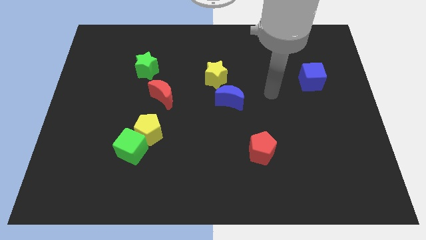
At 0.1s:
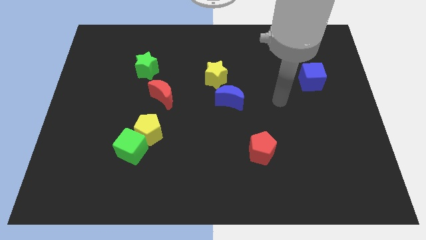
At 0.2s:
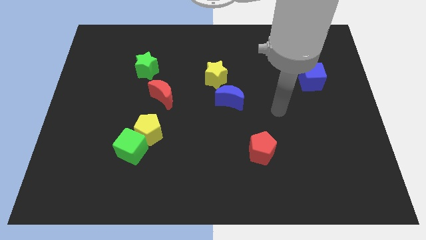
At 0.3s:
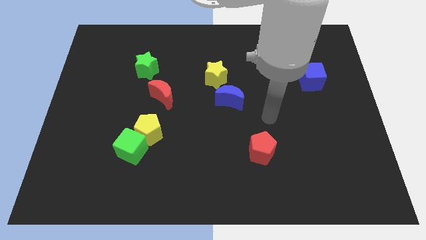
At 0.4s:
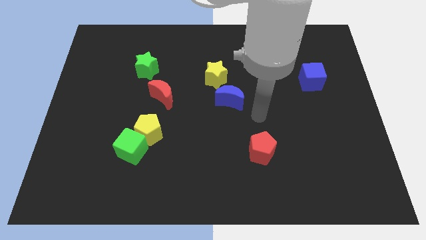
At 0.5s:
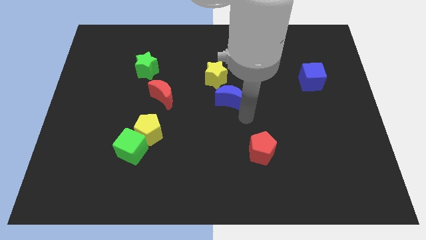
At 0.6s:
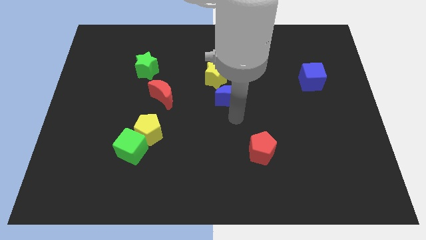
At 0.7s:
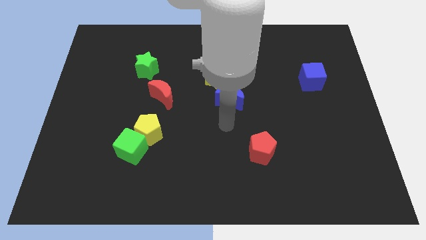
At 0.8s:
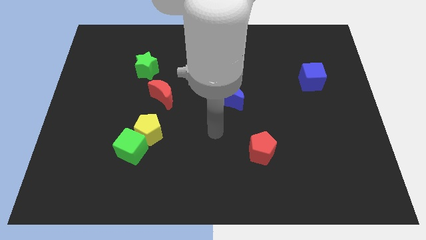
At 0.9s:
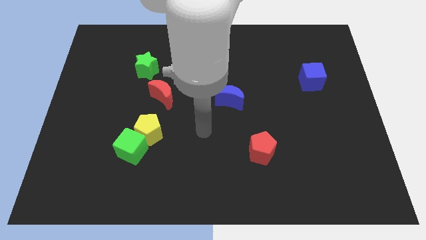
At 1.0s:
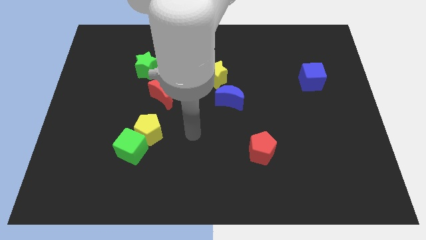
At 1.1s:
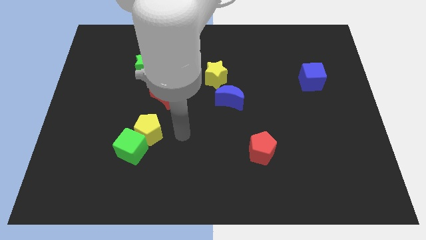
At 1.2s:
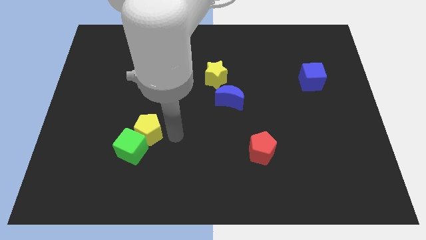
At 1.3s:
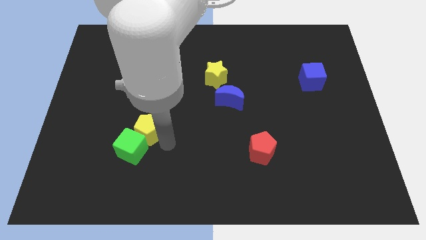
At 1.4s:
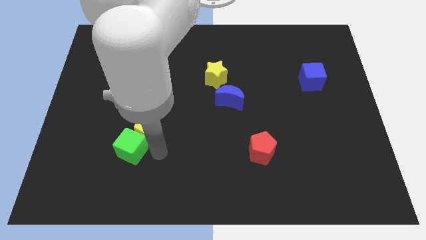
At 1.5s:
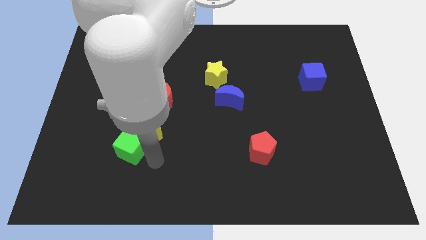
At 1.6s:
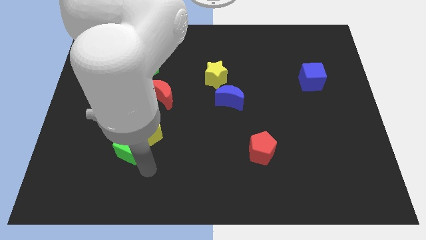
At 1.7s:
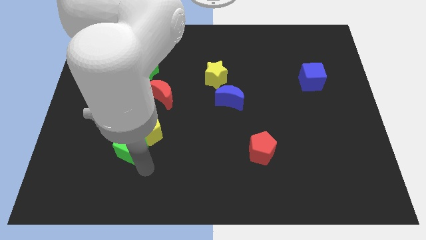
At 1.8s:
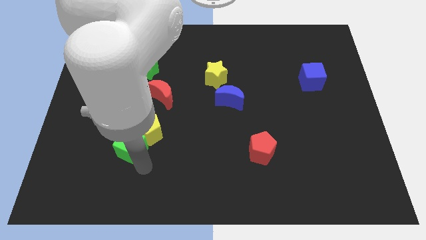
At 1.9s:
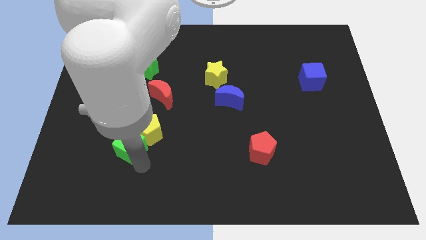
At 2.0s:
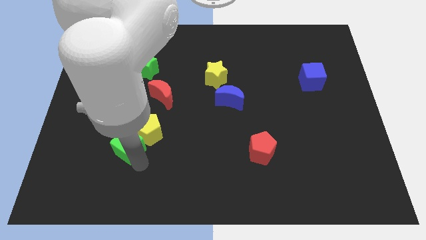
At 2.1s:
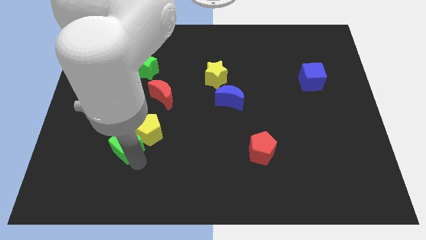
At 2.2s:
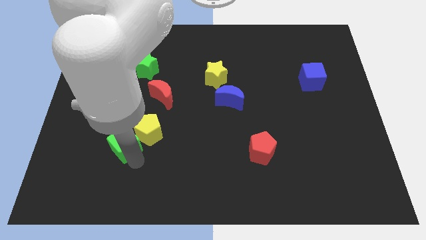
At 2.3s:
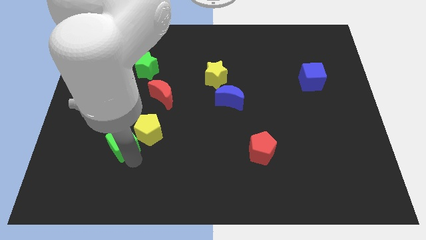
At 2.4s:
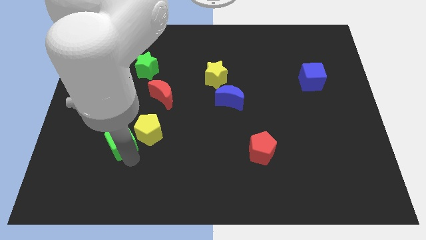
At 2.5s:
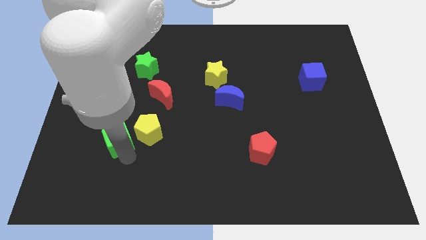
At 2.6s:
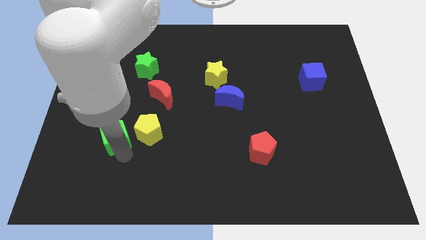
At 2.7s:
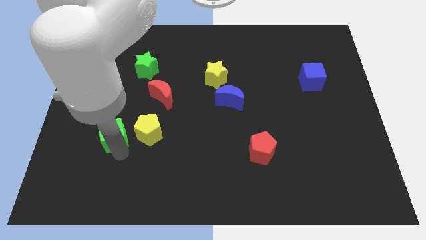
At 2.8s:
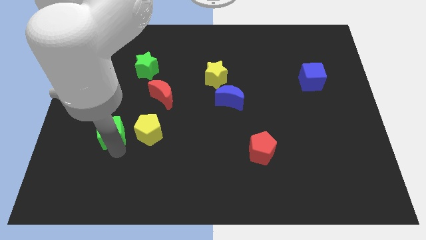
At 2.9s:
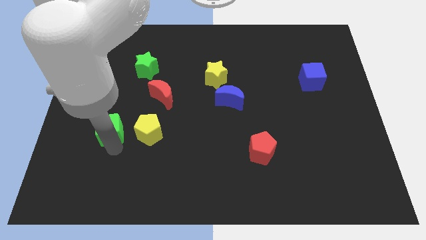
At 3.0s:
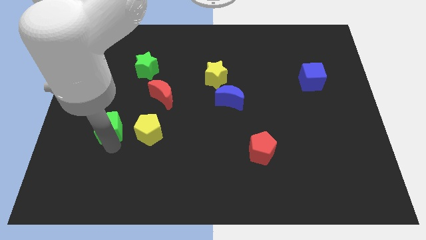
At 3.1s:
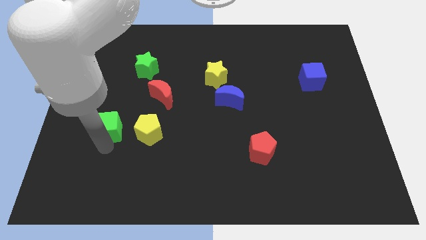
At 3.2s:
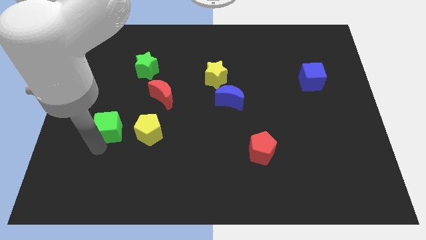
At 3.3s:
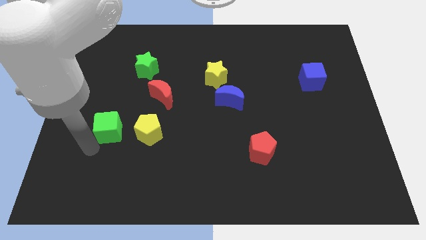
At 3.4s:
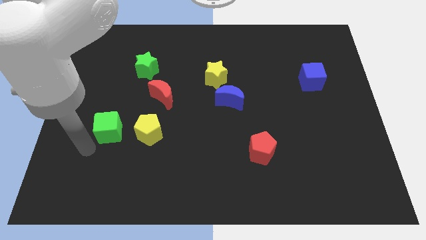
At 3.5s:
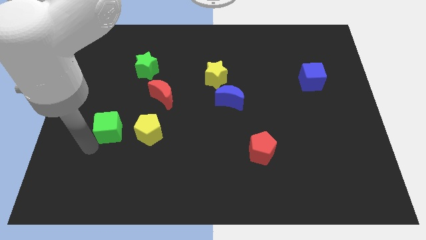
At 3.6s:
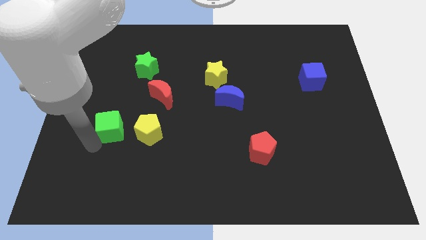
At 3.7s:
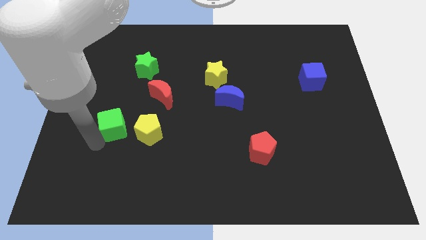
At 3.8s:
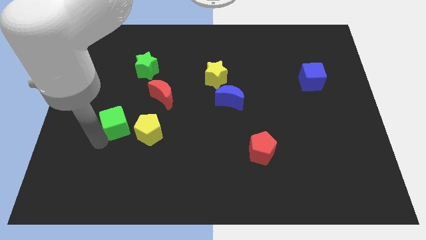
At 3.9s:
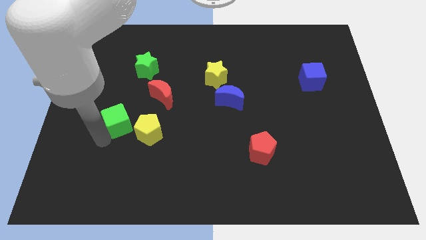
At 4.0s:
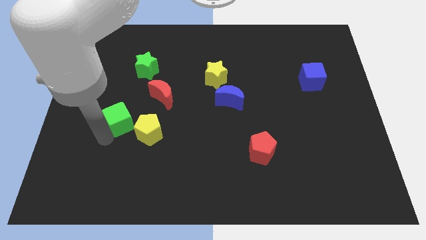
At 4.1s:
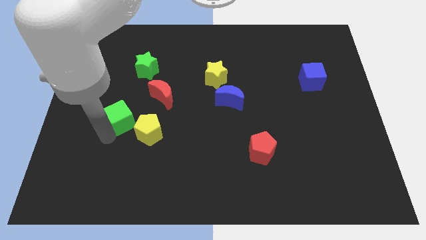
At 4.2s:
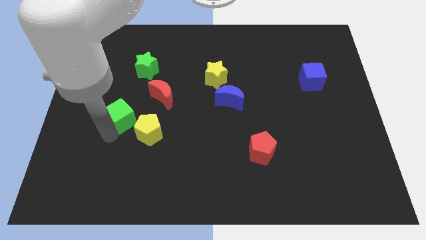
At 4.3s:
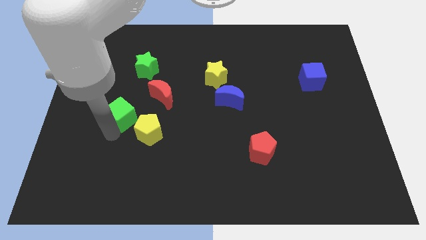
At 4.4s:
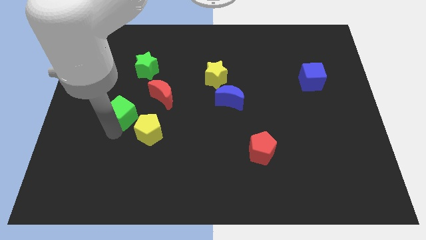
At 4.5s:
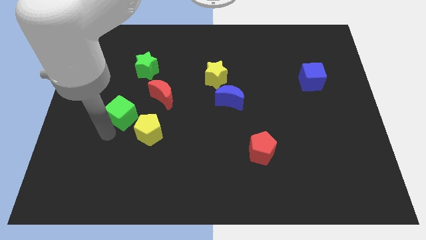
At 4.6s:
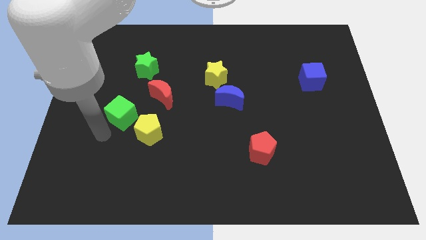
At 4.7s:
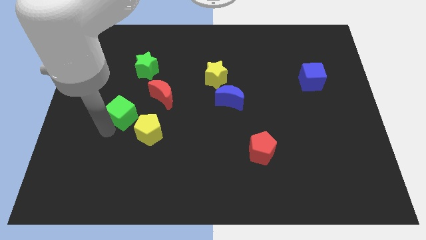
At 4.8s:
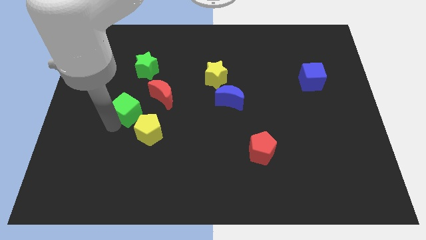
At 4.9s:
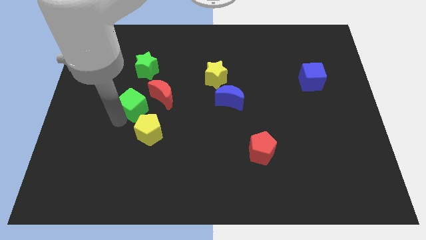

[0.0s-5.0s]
move the green cube to the top side of the yellow pentagon

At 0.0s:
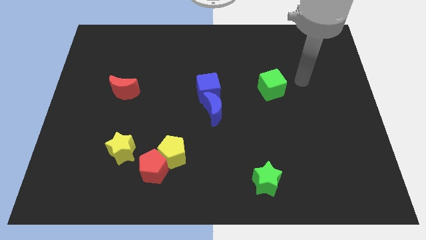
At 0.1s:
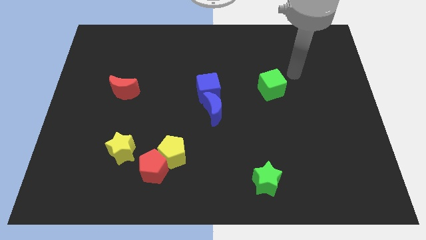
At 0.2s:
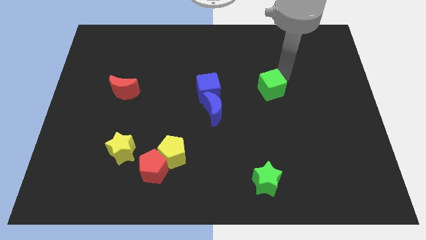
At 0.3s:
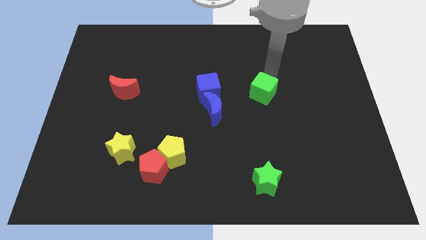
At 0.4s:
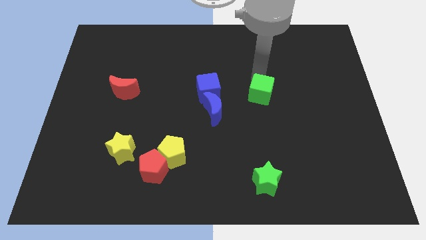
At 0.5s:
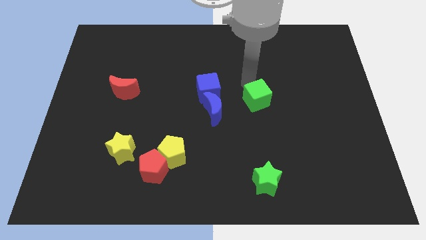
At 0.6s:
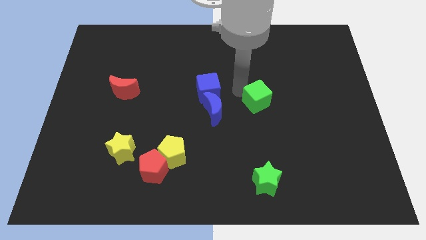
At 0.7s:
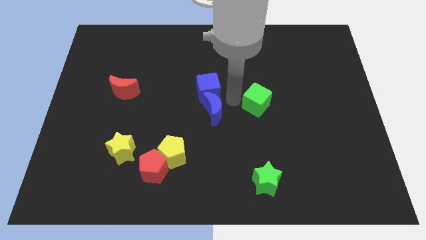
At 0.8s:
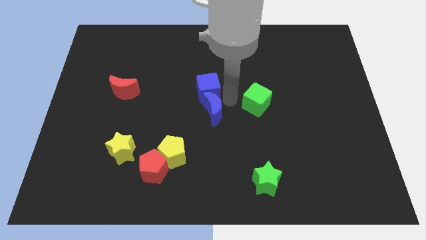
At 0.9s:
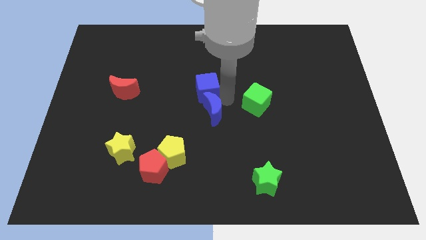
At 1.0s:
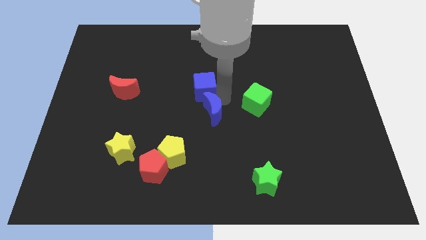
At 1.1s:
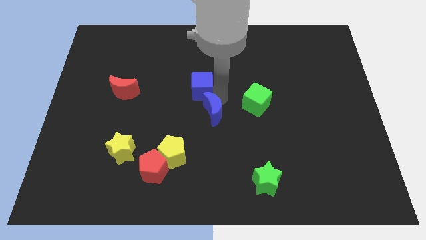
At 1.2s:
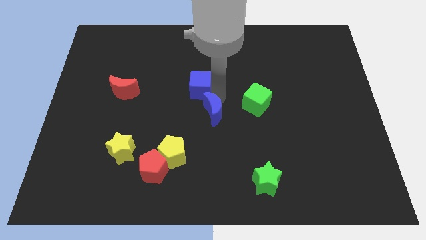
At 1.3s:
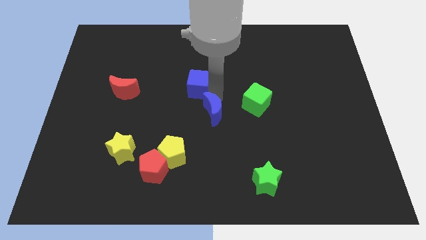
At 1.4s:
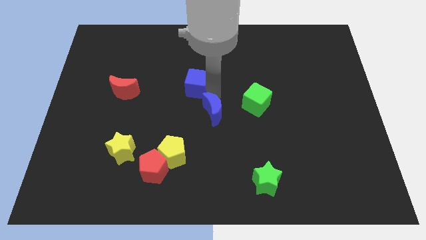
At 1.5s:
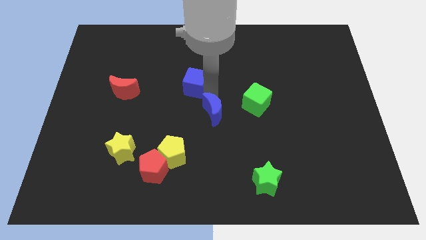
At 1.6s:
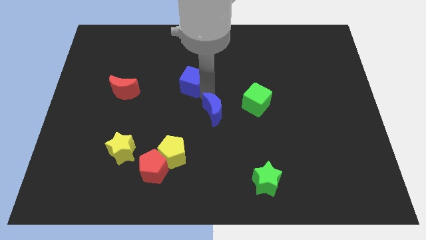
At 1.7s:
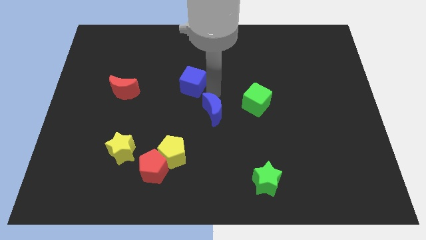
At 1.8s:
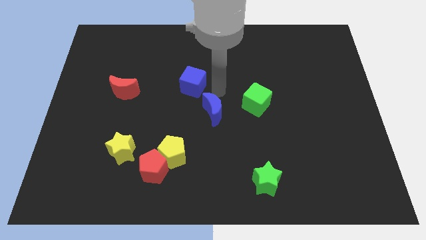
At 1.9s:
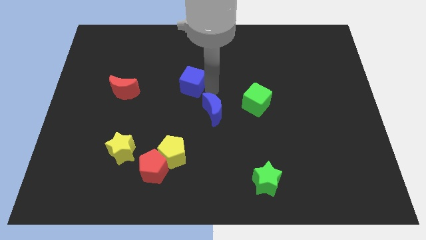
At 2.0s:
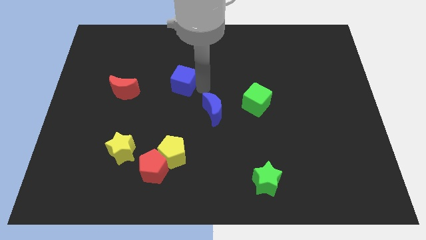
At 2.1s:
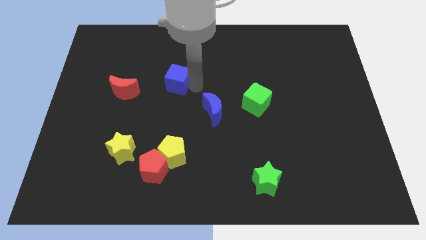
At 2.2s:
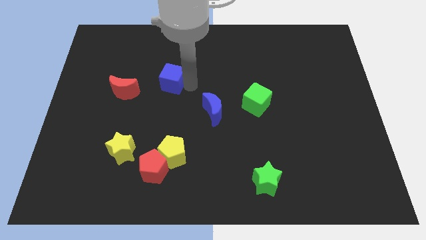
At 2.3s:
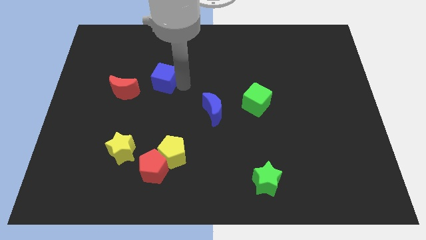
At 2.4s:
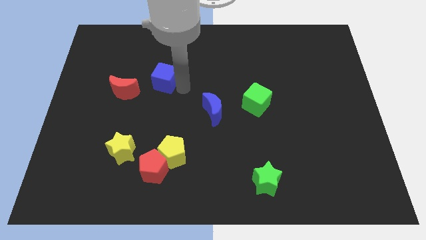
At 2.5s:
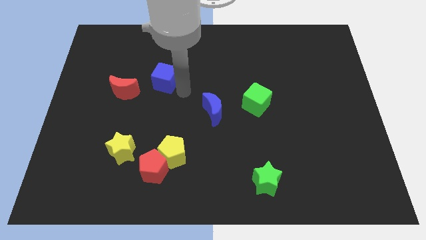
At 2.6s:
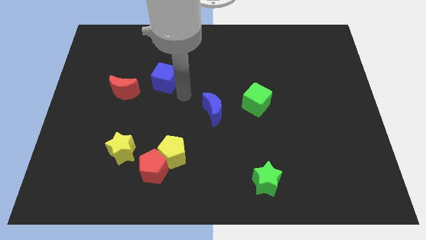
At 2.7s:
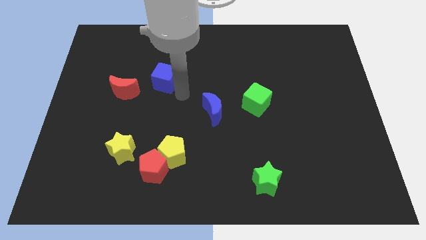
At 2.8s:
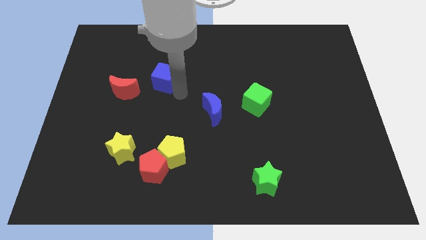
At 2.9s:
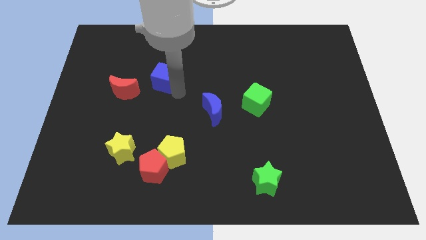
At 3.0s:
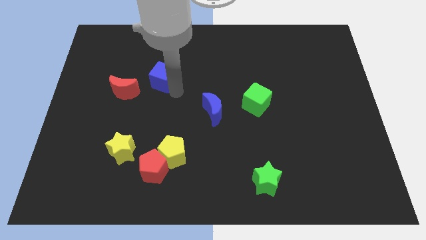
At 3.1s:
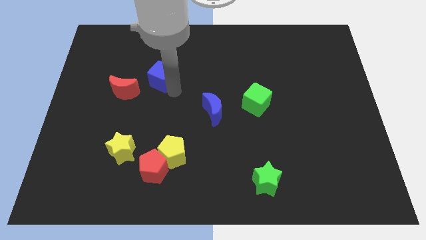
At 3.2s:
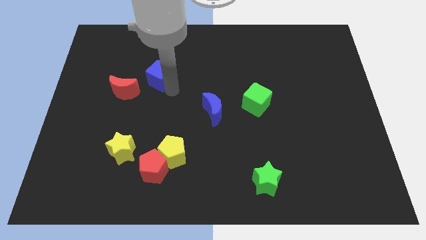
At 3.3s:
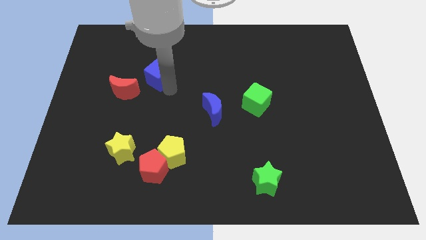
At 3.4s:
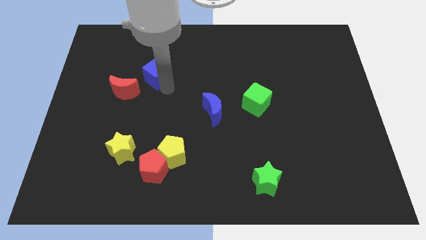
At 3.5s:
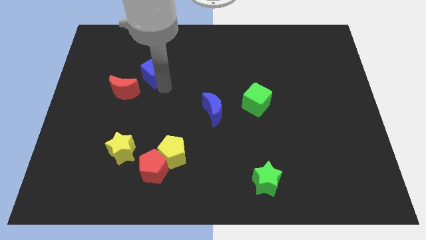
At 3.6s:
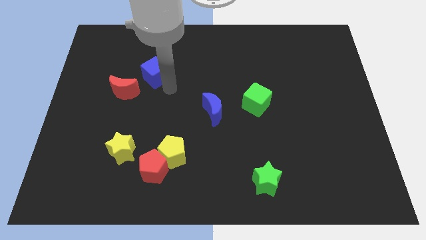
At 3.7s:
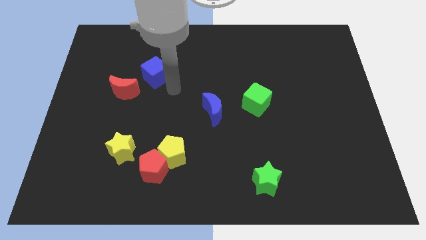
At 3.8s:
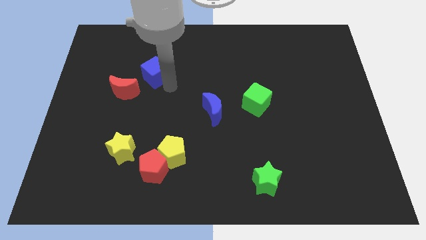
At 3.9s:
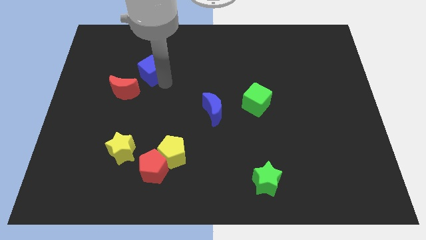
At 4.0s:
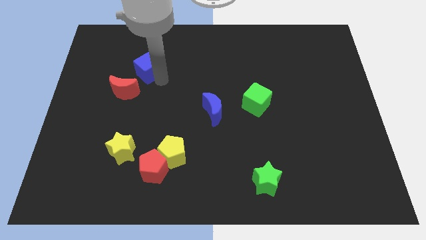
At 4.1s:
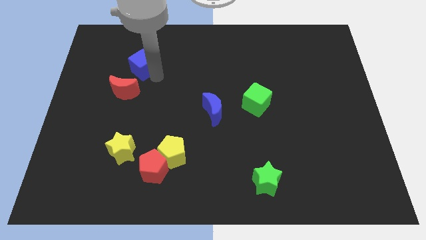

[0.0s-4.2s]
put the blue cube to the top of the red moon
